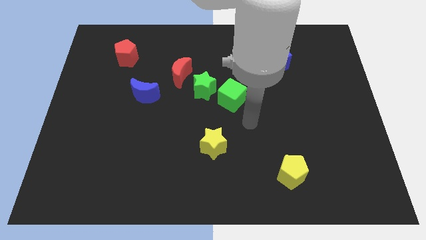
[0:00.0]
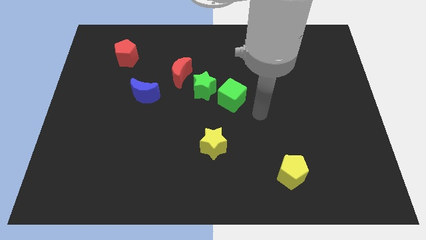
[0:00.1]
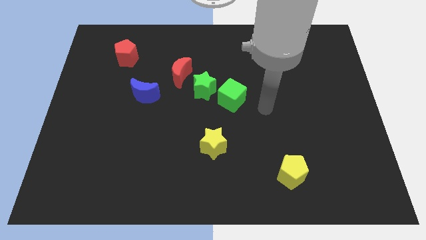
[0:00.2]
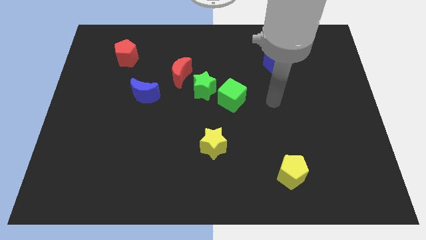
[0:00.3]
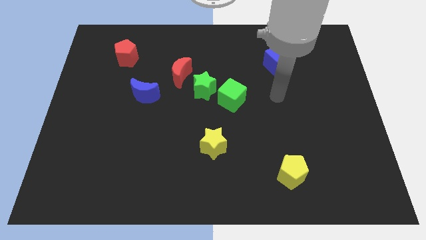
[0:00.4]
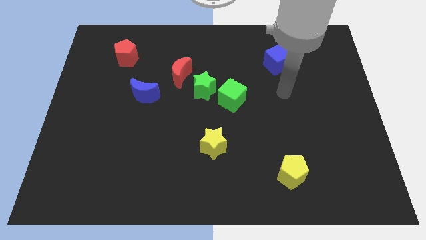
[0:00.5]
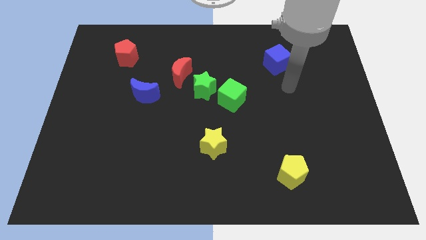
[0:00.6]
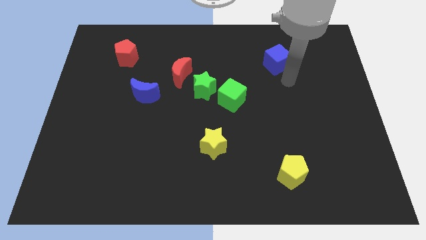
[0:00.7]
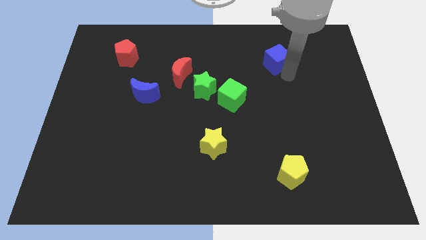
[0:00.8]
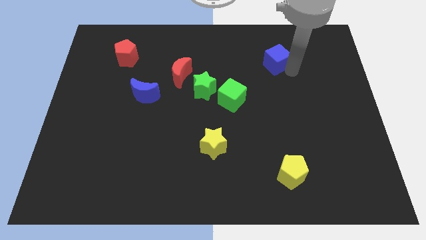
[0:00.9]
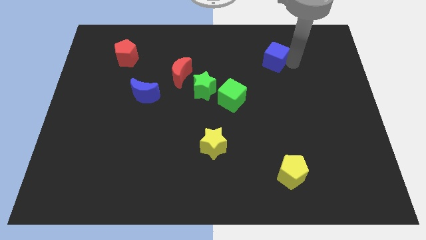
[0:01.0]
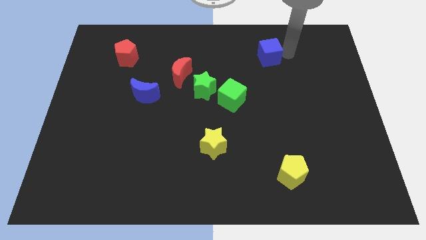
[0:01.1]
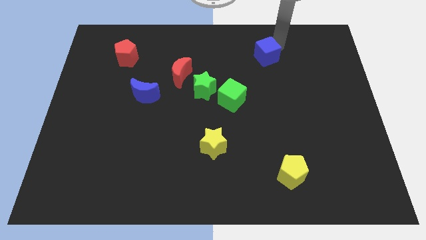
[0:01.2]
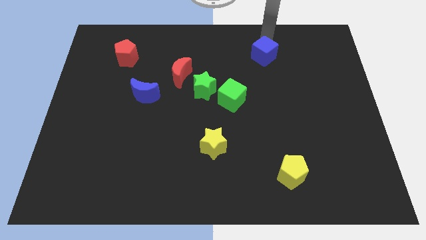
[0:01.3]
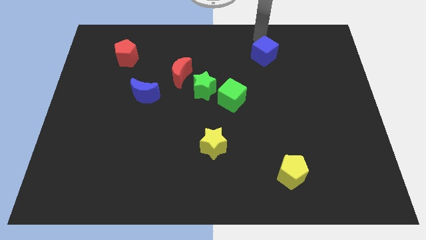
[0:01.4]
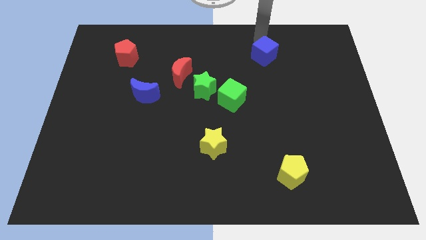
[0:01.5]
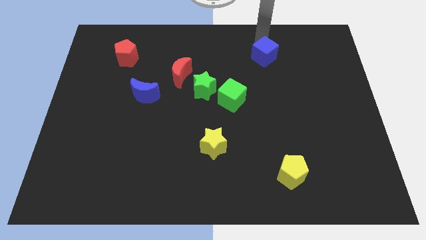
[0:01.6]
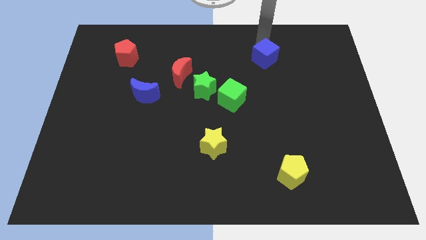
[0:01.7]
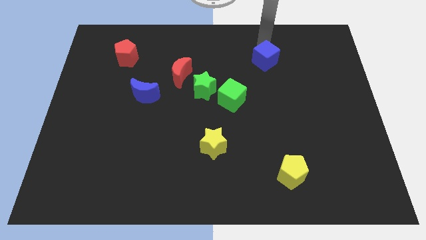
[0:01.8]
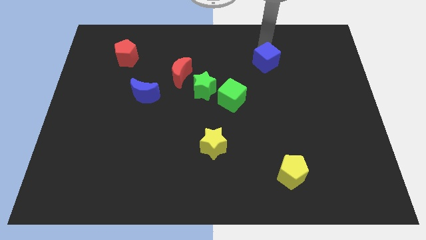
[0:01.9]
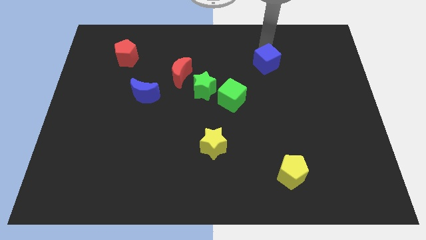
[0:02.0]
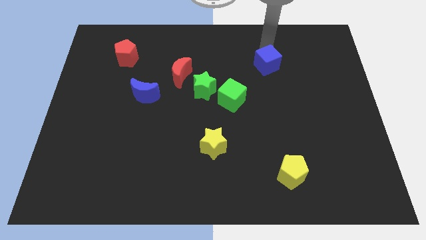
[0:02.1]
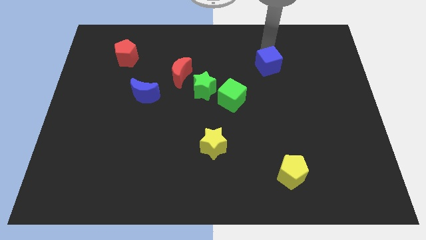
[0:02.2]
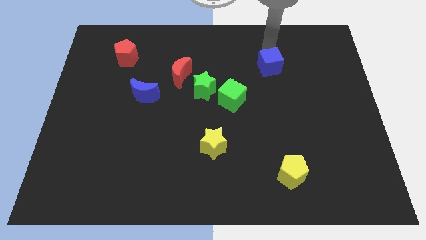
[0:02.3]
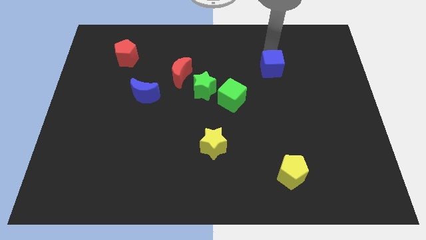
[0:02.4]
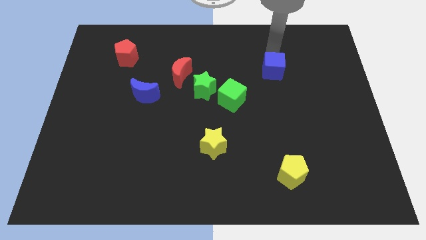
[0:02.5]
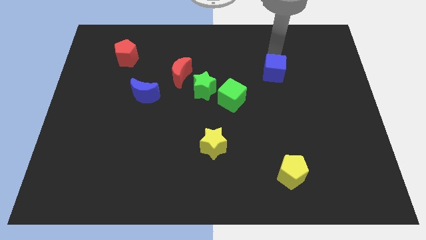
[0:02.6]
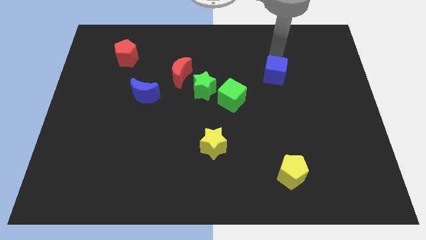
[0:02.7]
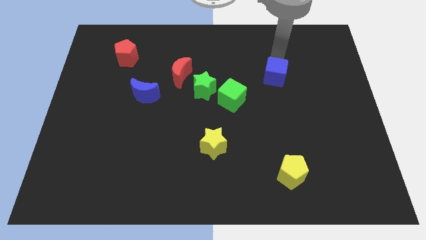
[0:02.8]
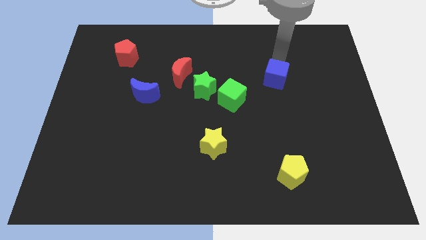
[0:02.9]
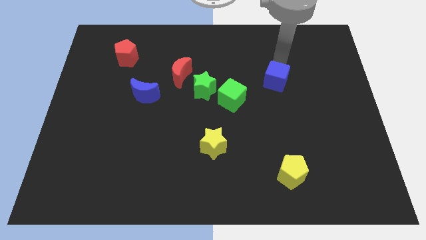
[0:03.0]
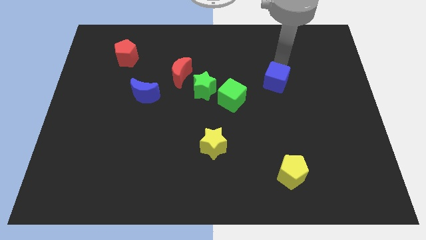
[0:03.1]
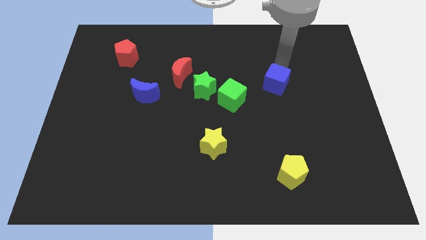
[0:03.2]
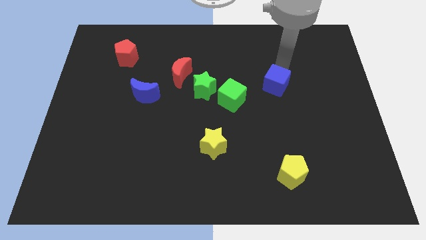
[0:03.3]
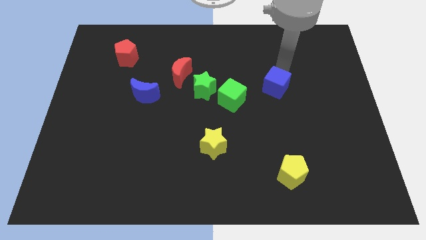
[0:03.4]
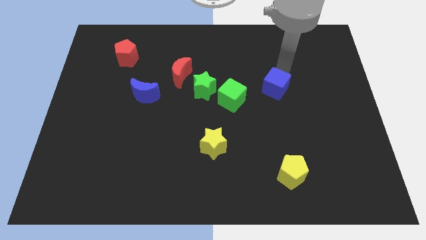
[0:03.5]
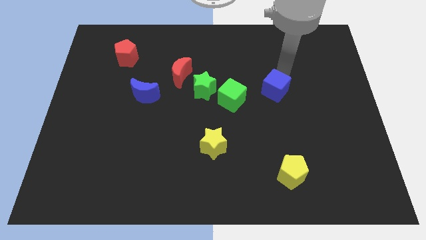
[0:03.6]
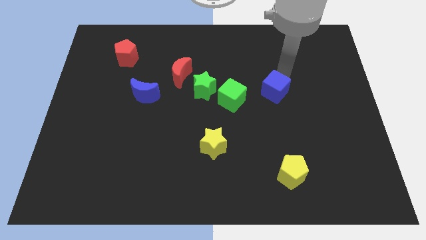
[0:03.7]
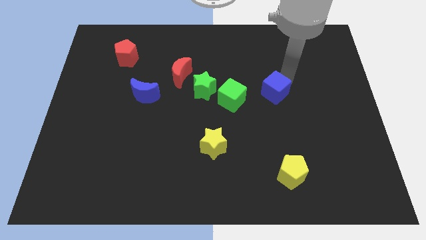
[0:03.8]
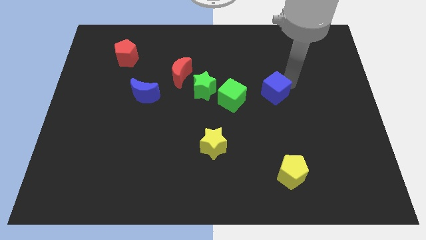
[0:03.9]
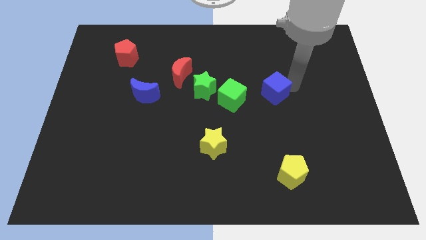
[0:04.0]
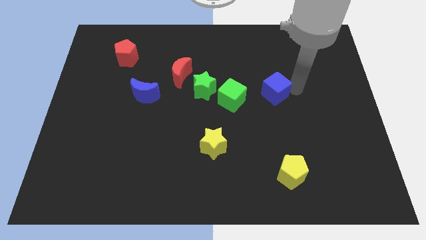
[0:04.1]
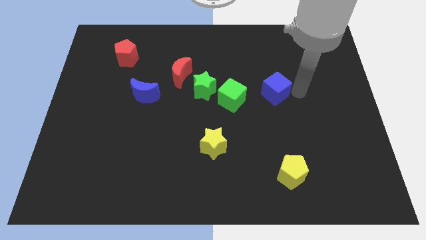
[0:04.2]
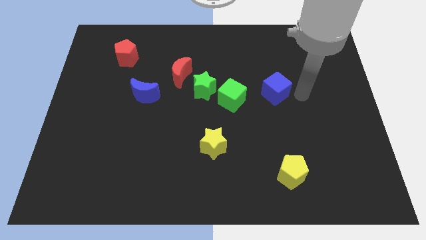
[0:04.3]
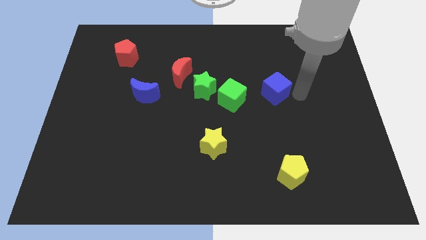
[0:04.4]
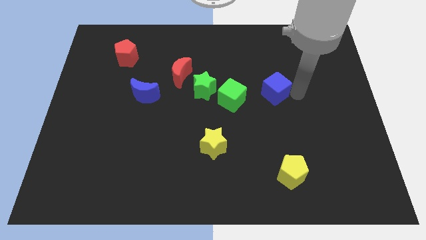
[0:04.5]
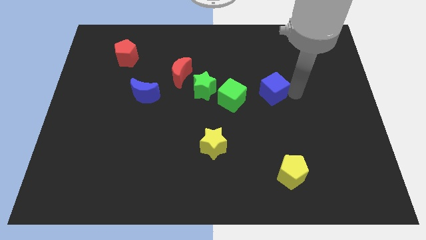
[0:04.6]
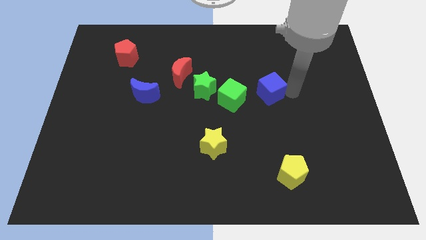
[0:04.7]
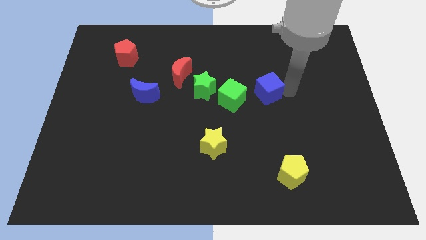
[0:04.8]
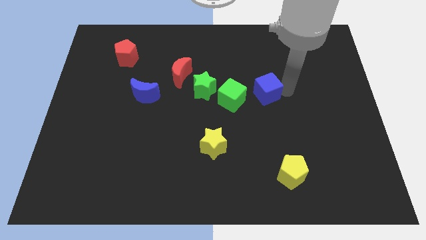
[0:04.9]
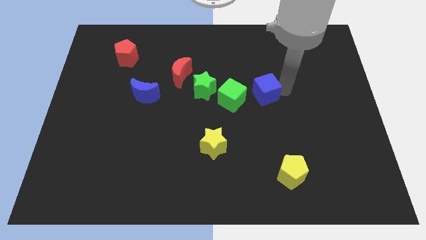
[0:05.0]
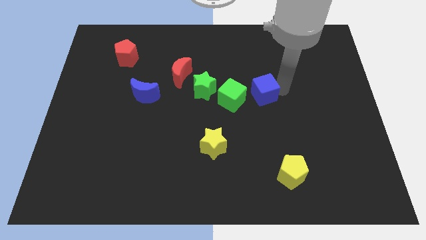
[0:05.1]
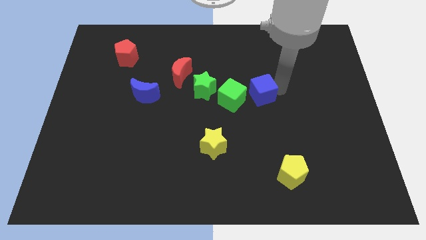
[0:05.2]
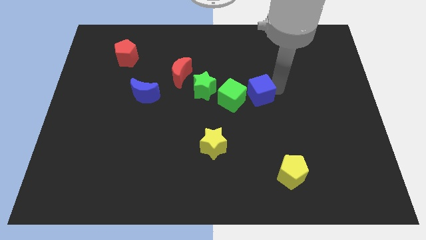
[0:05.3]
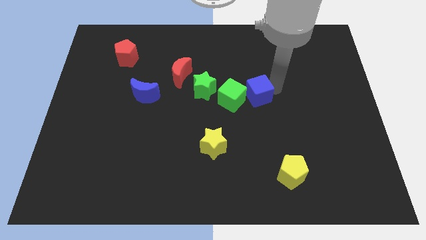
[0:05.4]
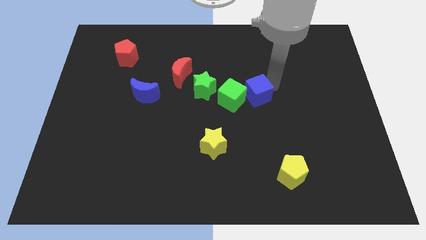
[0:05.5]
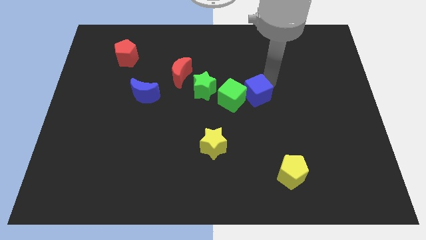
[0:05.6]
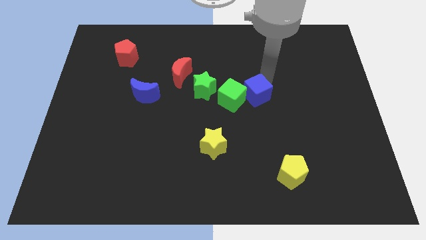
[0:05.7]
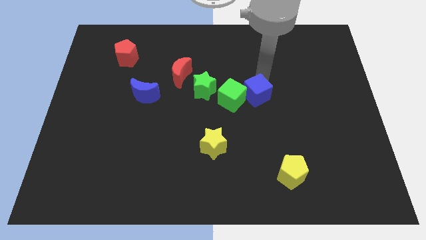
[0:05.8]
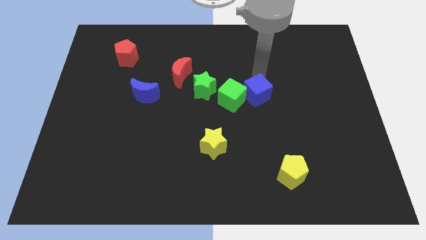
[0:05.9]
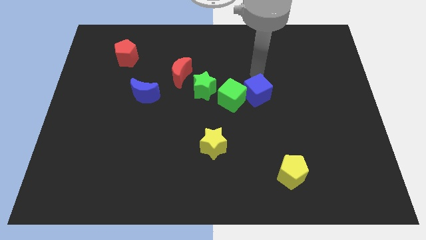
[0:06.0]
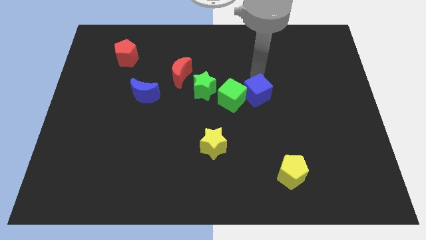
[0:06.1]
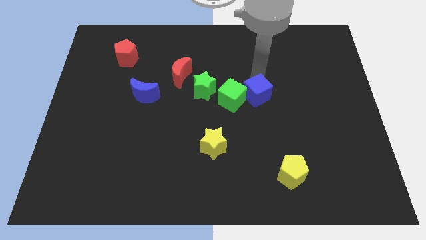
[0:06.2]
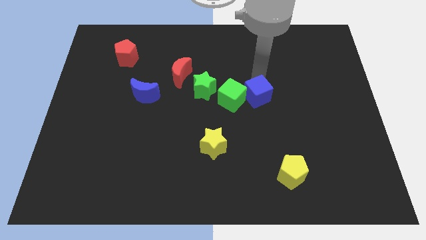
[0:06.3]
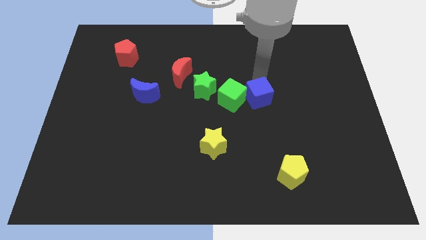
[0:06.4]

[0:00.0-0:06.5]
put the blue cube diagonally down and to the right of the green cube

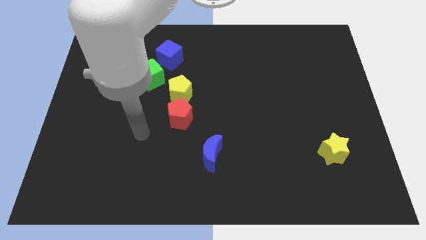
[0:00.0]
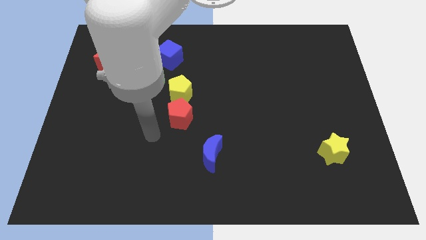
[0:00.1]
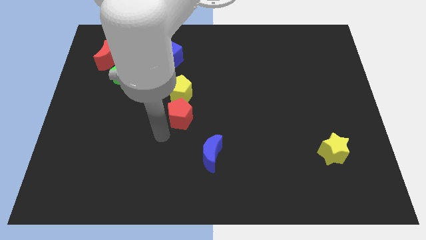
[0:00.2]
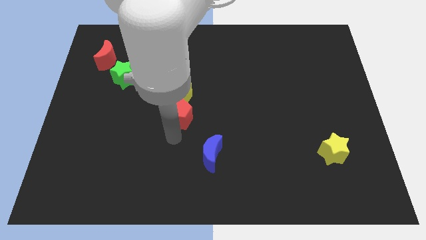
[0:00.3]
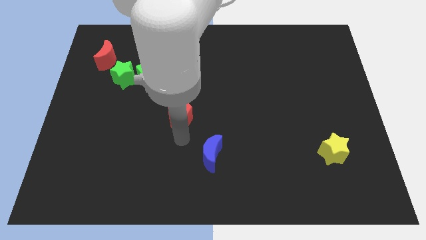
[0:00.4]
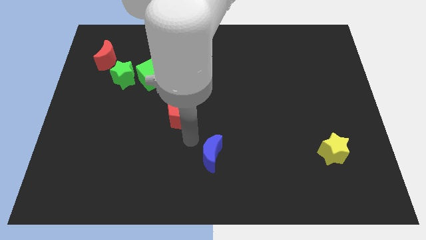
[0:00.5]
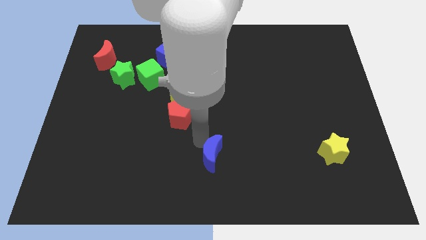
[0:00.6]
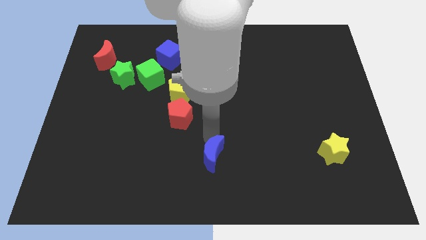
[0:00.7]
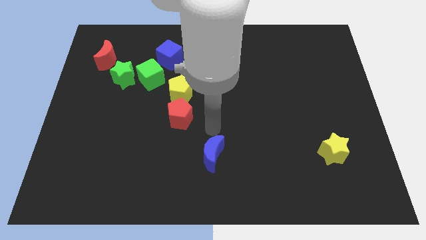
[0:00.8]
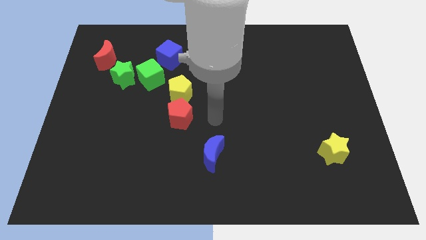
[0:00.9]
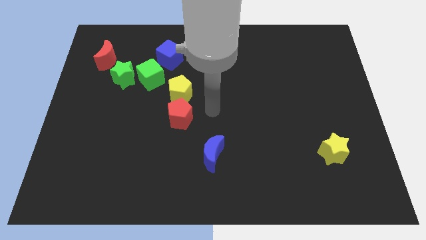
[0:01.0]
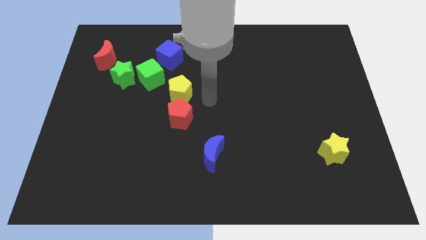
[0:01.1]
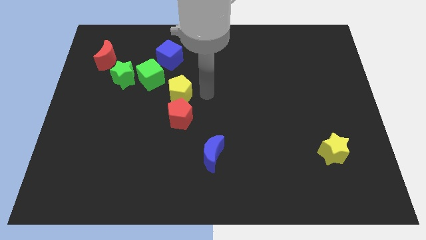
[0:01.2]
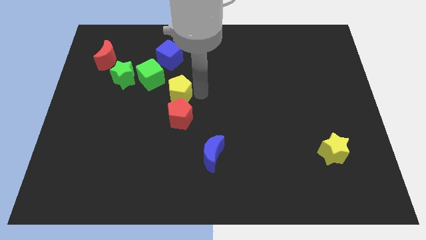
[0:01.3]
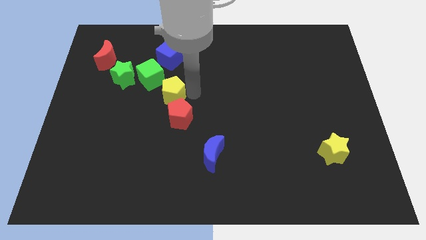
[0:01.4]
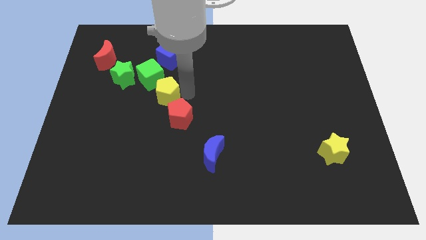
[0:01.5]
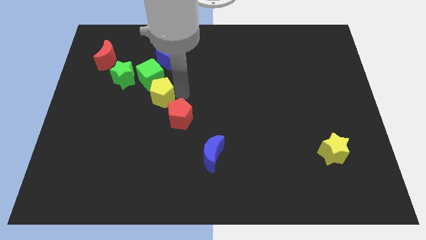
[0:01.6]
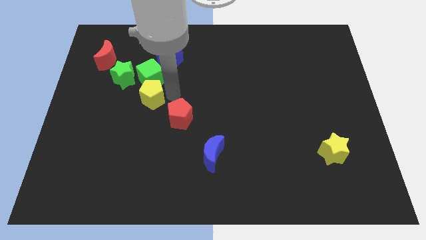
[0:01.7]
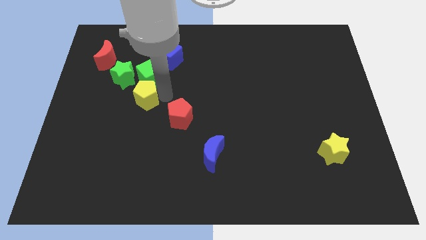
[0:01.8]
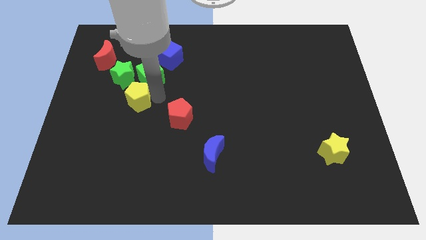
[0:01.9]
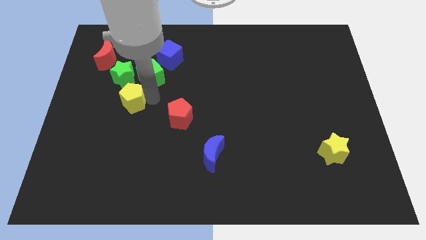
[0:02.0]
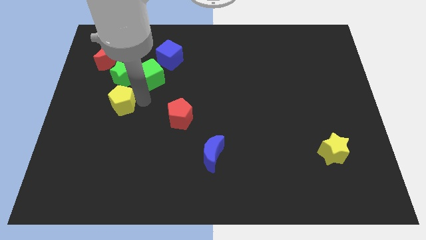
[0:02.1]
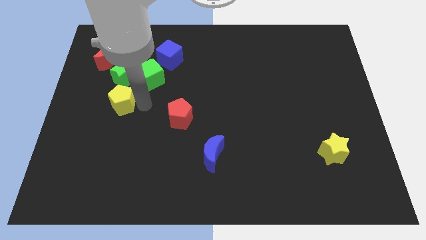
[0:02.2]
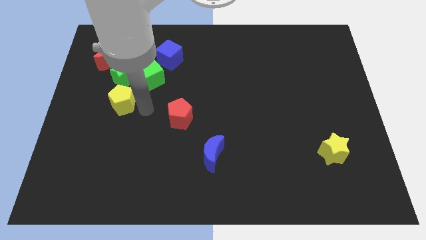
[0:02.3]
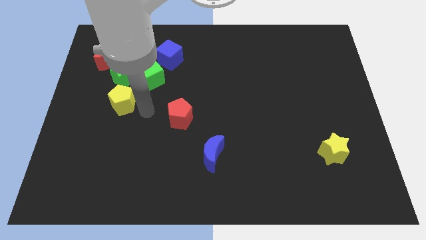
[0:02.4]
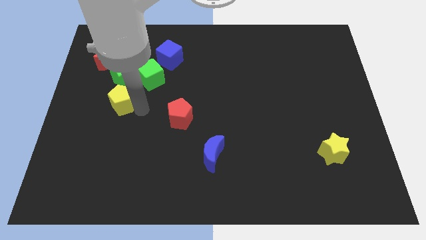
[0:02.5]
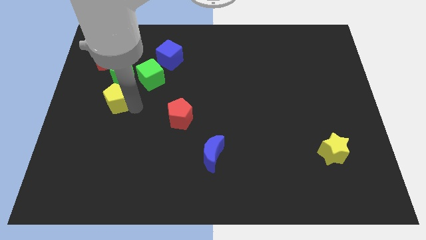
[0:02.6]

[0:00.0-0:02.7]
move the yellow pentagon diagonally down and to the left of the green star
